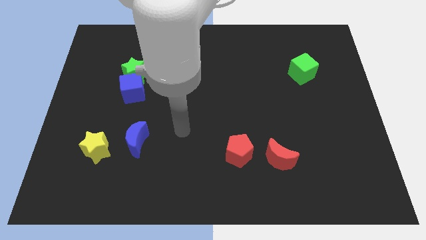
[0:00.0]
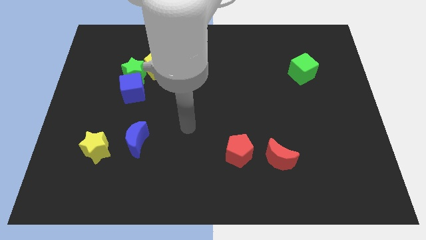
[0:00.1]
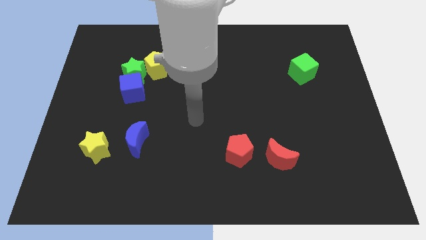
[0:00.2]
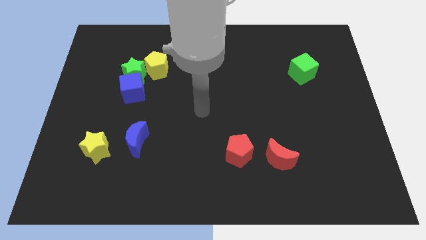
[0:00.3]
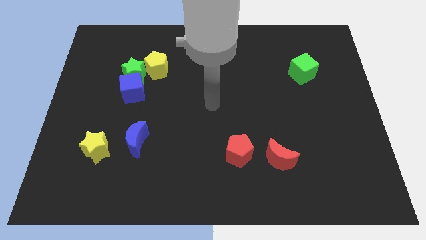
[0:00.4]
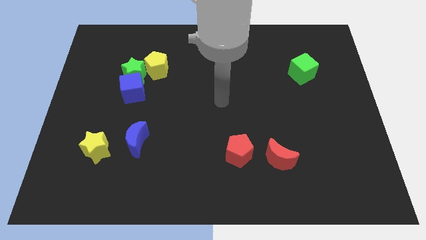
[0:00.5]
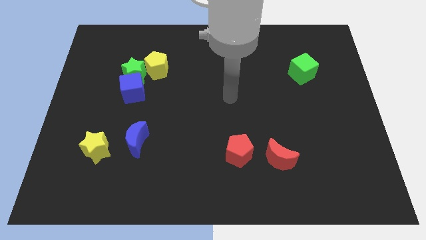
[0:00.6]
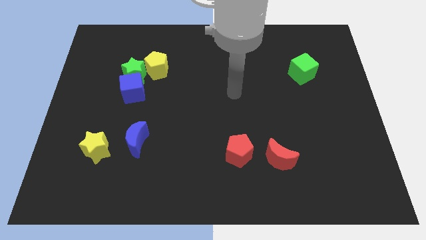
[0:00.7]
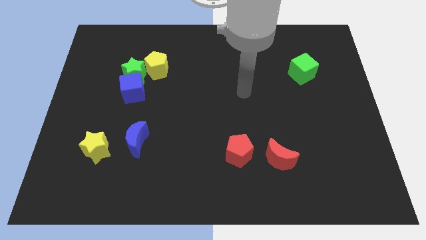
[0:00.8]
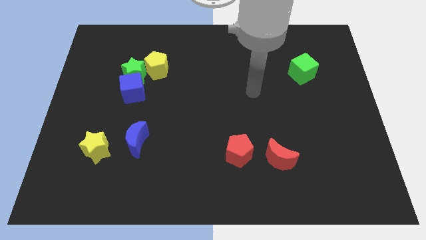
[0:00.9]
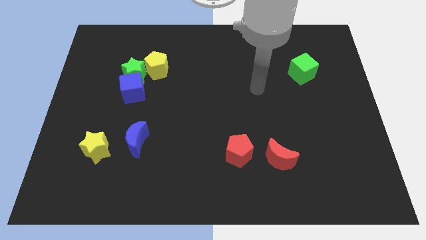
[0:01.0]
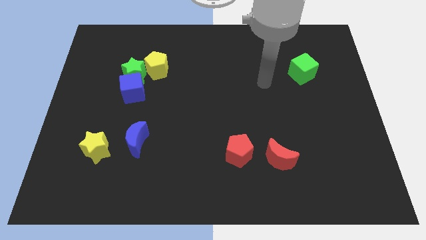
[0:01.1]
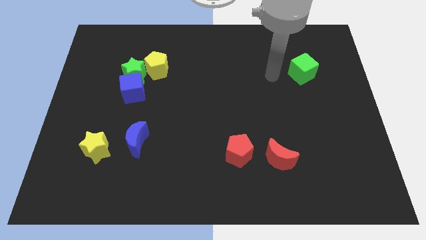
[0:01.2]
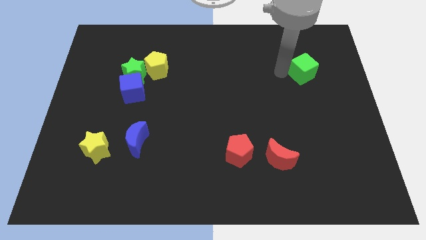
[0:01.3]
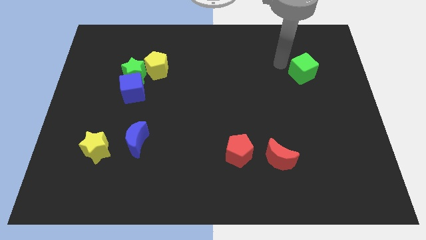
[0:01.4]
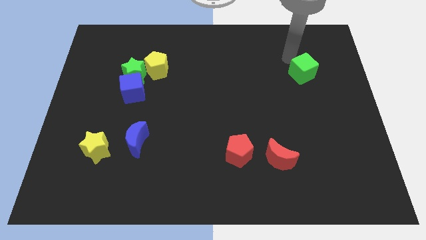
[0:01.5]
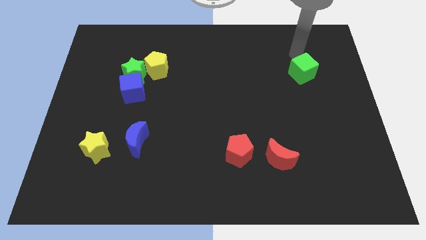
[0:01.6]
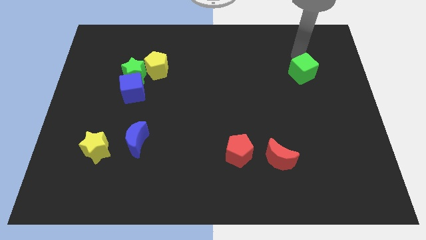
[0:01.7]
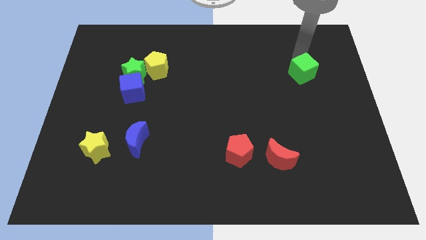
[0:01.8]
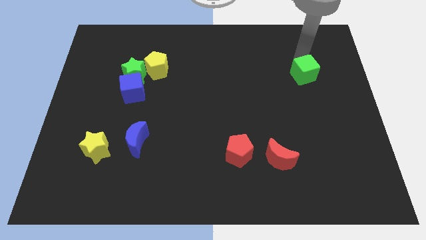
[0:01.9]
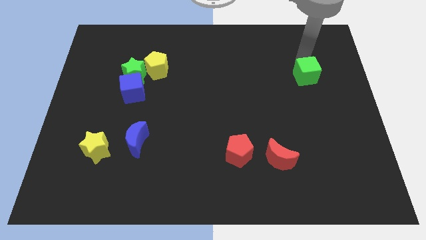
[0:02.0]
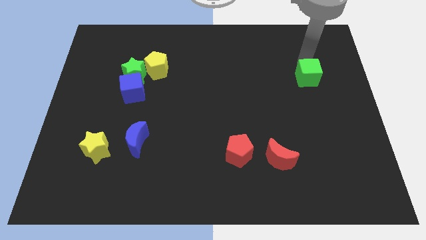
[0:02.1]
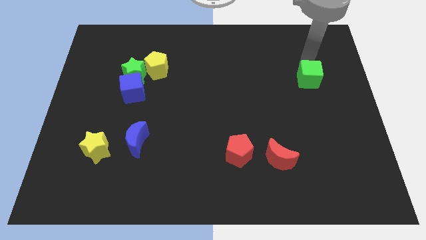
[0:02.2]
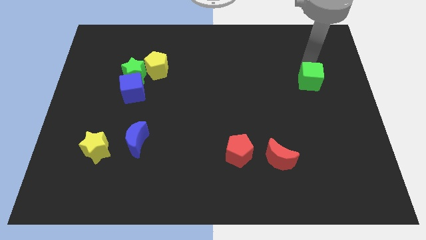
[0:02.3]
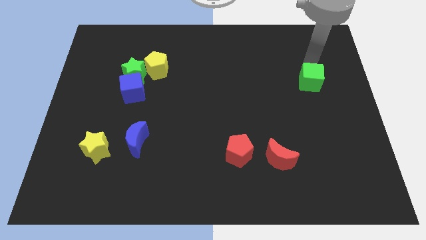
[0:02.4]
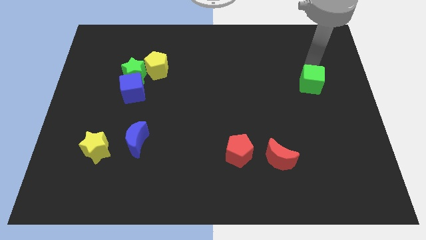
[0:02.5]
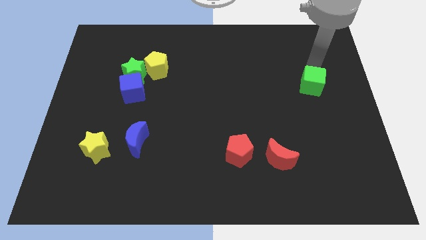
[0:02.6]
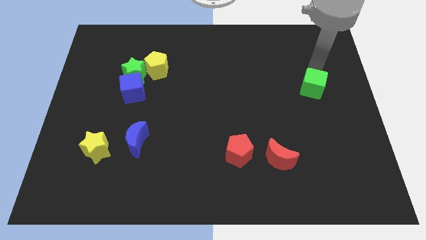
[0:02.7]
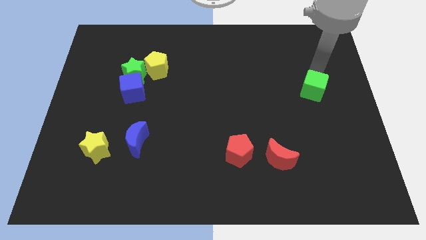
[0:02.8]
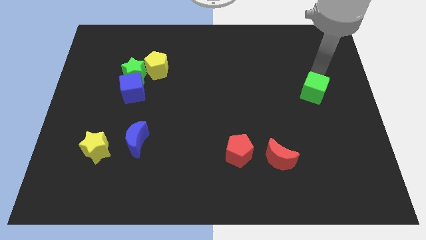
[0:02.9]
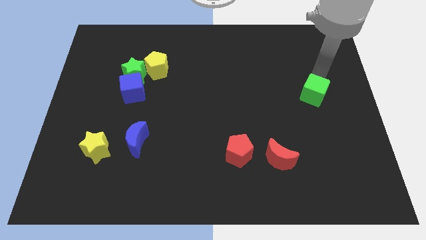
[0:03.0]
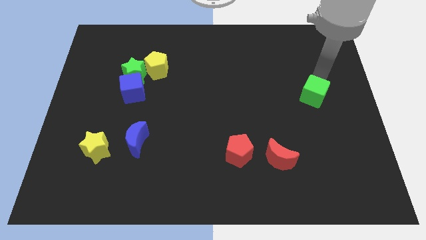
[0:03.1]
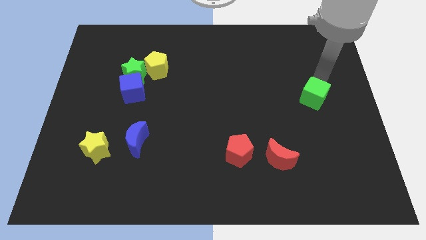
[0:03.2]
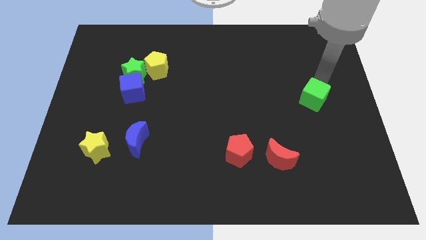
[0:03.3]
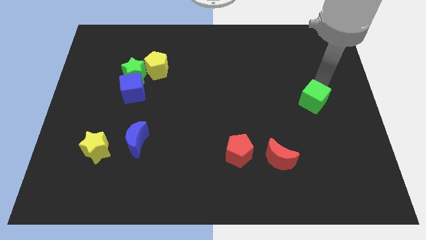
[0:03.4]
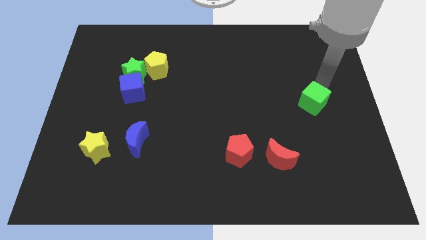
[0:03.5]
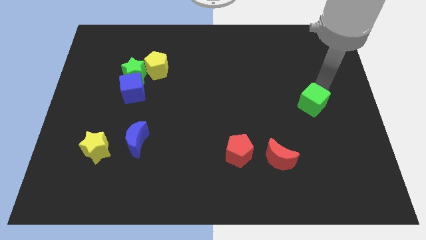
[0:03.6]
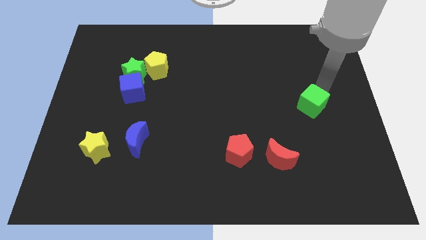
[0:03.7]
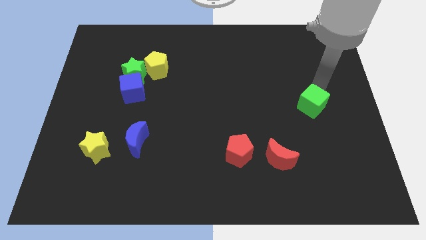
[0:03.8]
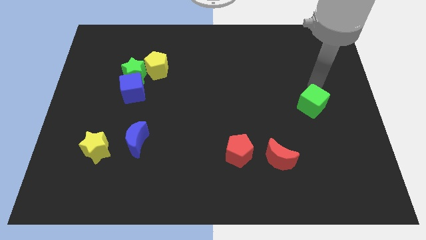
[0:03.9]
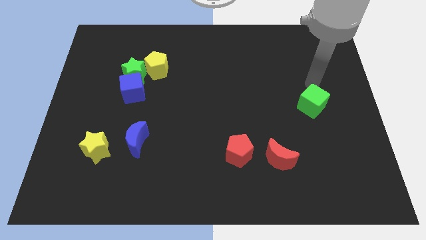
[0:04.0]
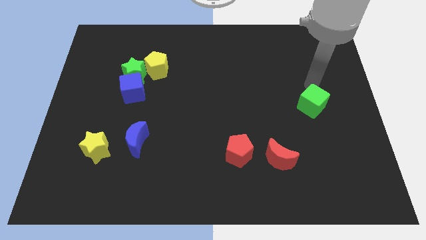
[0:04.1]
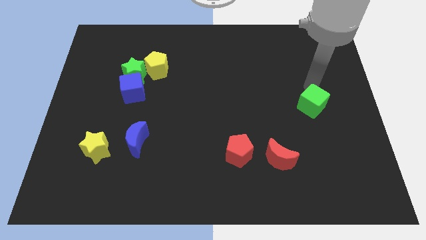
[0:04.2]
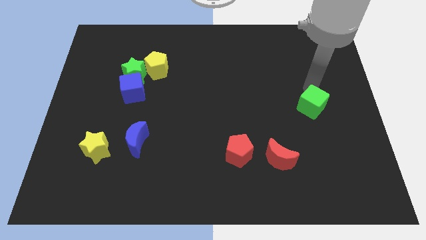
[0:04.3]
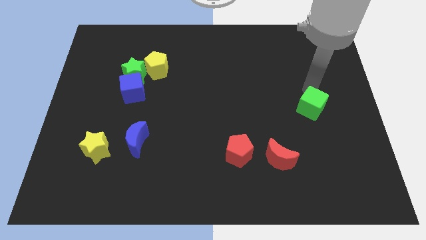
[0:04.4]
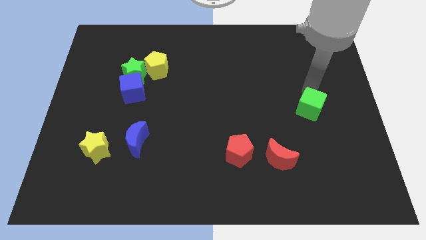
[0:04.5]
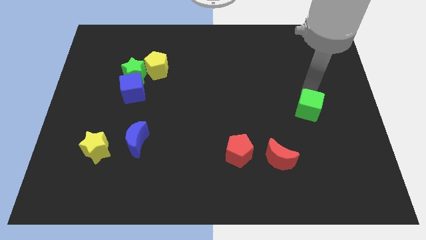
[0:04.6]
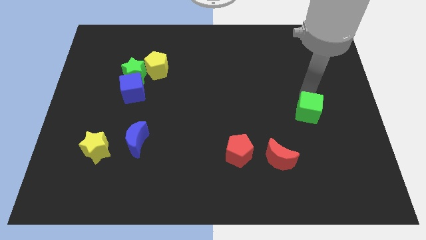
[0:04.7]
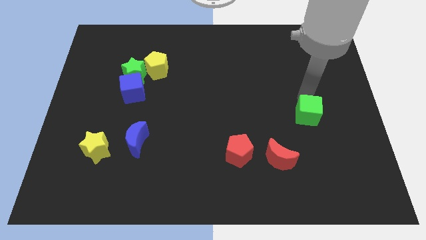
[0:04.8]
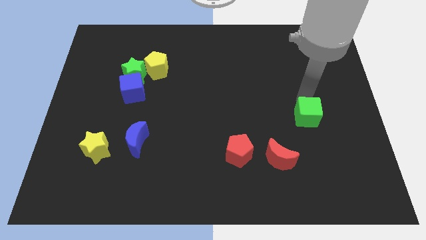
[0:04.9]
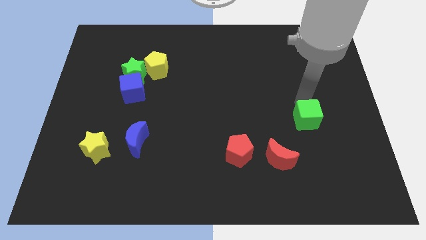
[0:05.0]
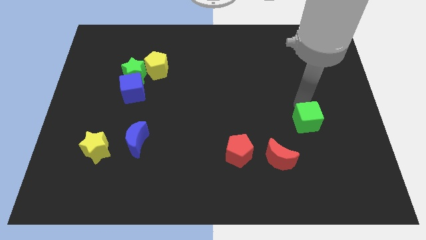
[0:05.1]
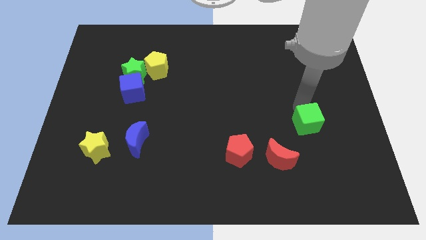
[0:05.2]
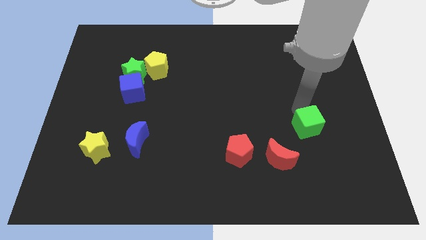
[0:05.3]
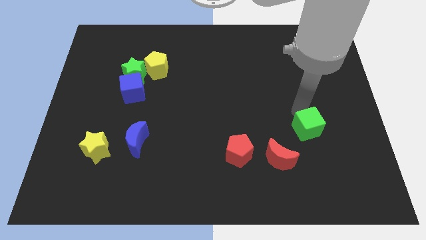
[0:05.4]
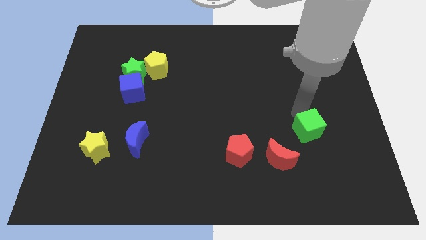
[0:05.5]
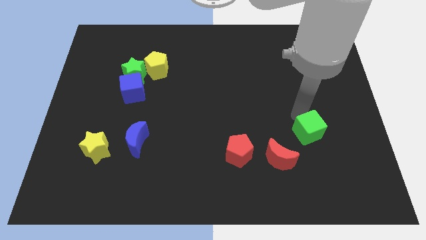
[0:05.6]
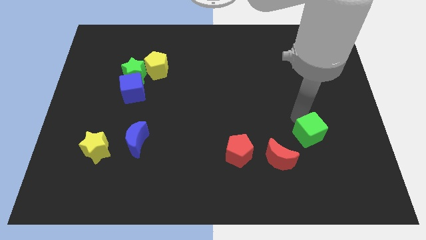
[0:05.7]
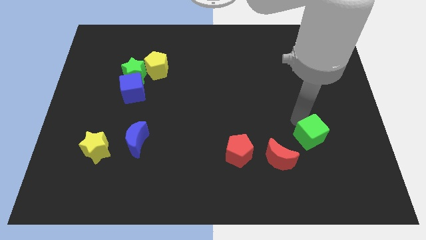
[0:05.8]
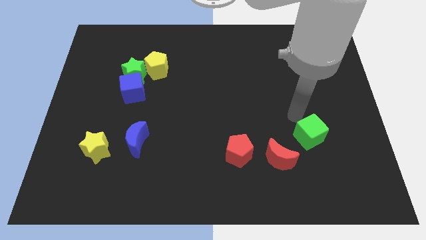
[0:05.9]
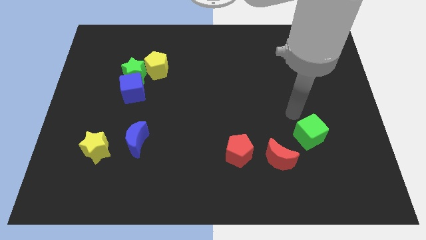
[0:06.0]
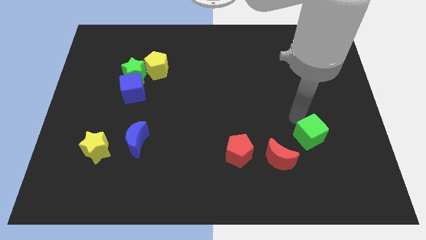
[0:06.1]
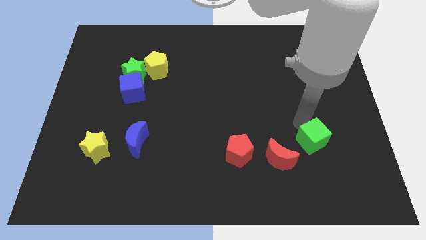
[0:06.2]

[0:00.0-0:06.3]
slide the green cube to the right side of the red moon

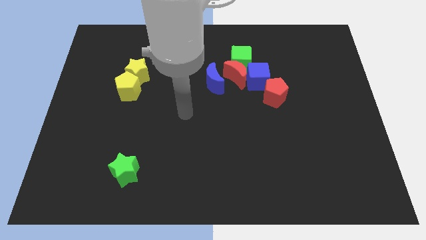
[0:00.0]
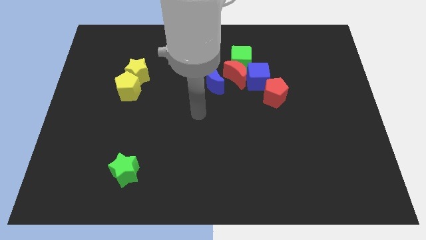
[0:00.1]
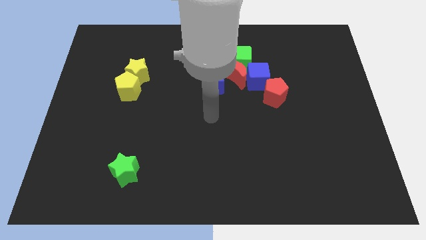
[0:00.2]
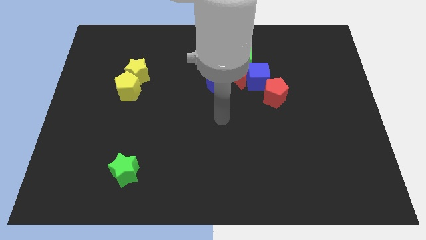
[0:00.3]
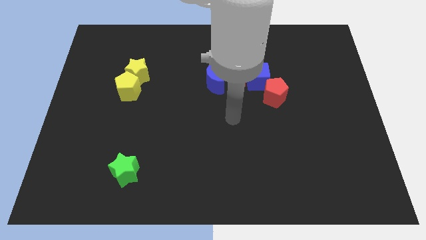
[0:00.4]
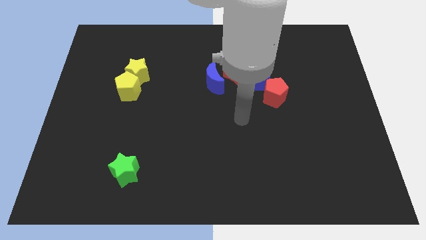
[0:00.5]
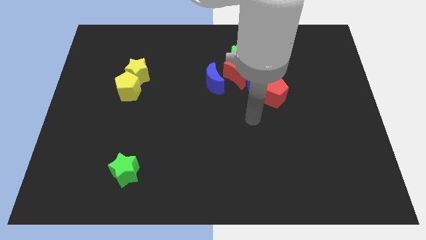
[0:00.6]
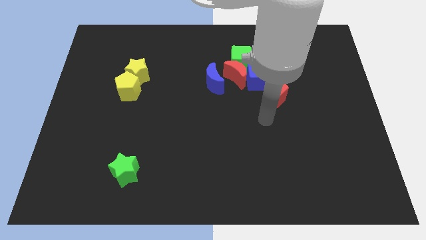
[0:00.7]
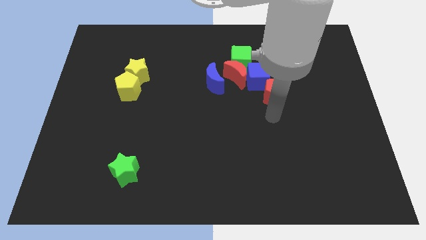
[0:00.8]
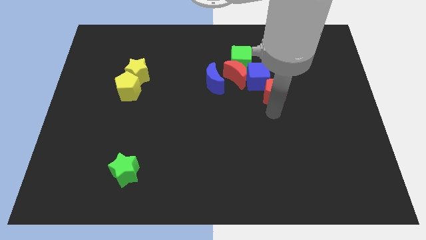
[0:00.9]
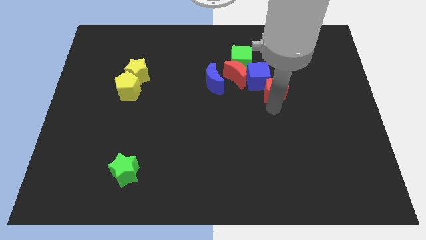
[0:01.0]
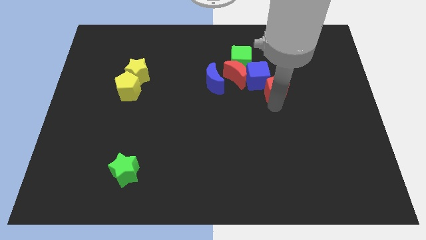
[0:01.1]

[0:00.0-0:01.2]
move the red pentagon diagonally down and to the right of the green cube
